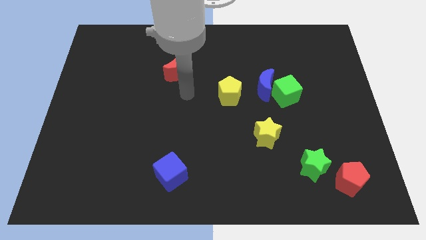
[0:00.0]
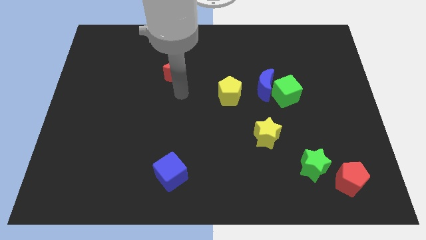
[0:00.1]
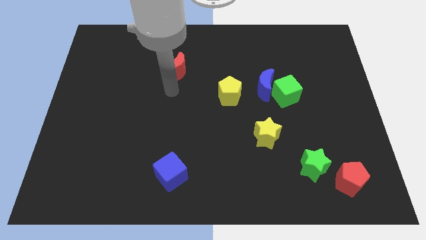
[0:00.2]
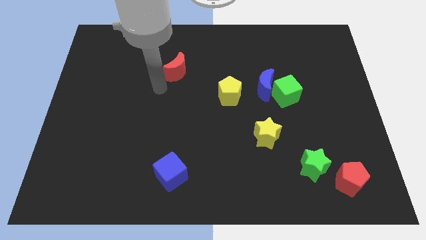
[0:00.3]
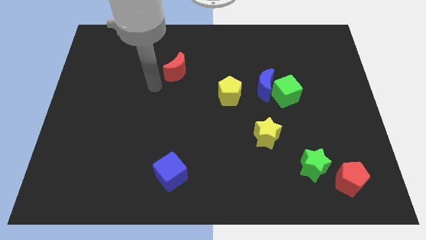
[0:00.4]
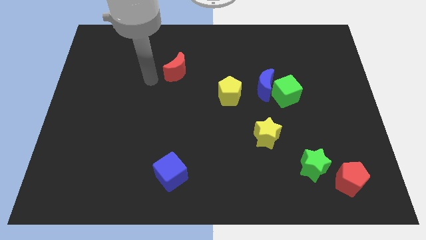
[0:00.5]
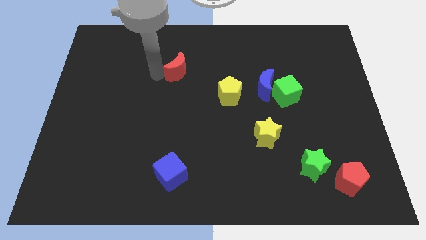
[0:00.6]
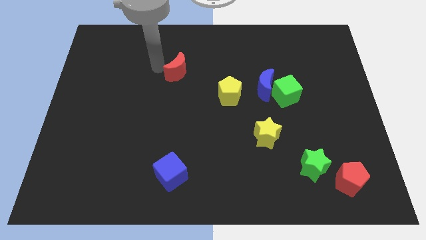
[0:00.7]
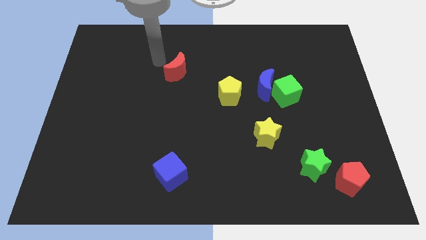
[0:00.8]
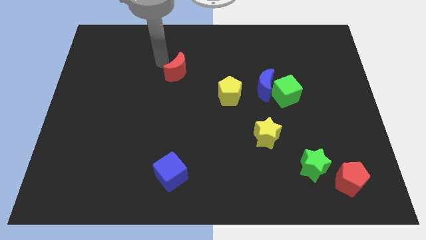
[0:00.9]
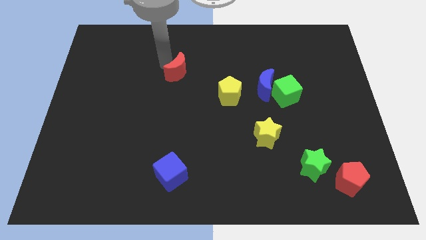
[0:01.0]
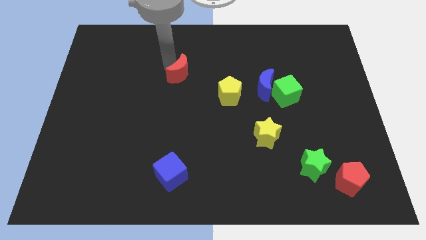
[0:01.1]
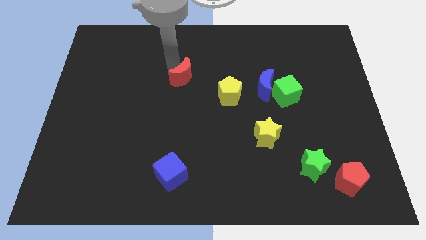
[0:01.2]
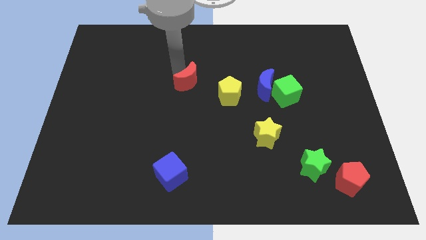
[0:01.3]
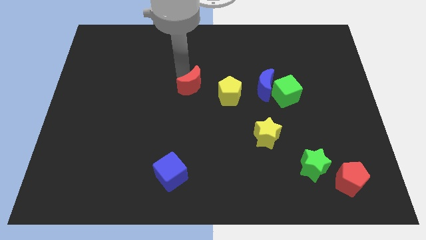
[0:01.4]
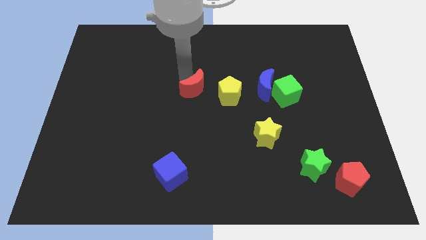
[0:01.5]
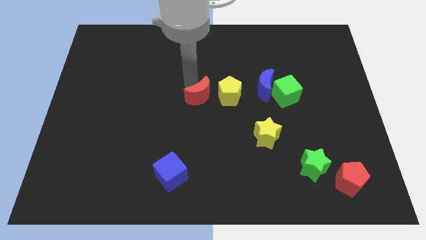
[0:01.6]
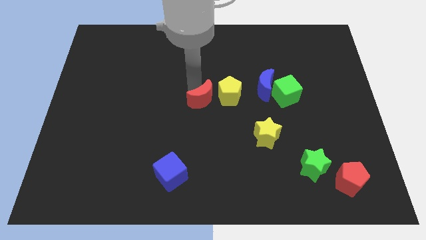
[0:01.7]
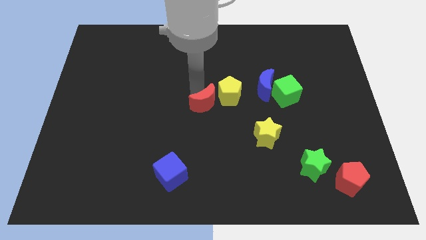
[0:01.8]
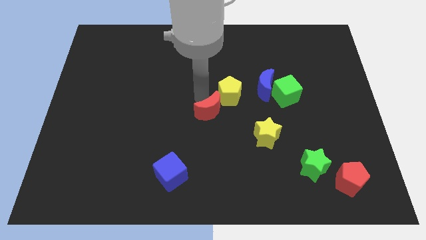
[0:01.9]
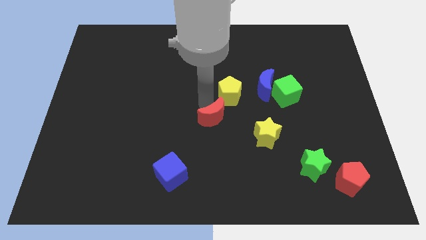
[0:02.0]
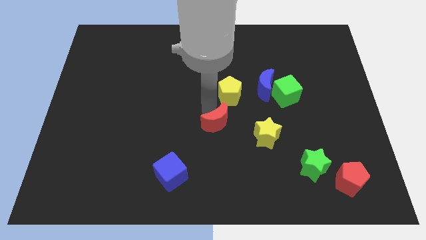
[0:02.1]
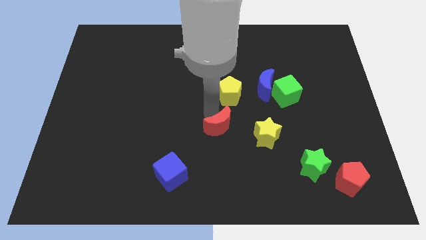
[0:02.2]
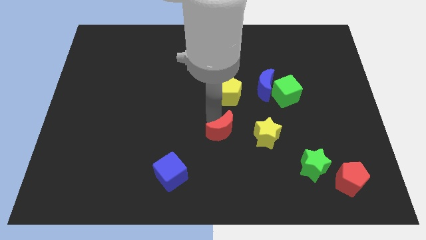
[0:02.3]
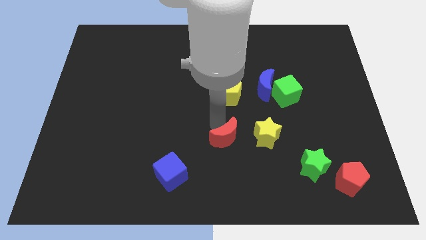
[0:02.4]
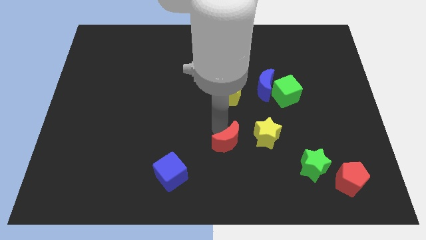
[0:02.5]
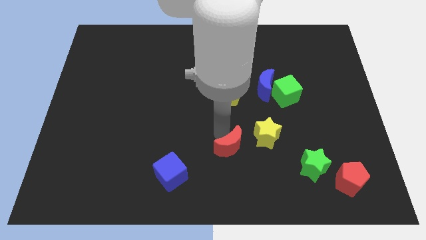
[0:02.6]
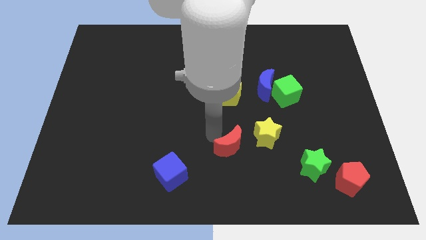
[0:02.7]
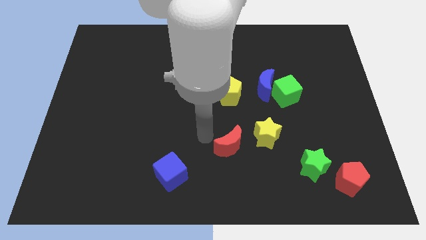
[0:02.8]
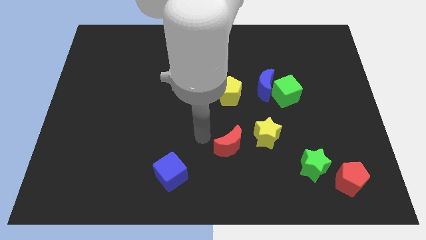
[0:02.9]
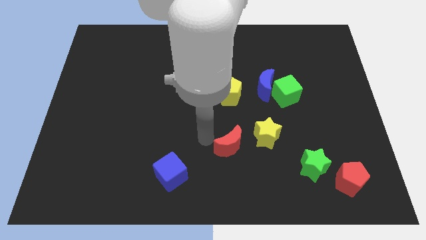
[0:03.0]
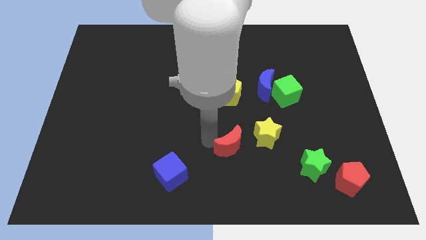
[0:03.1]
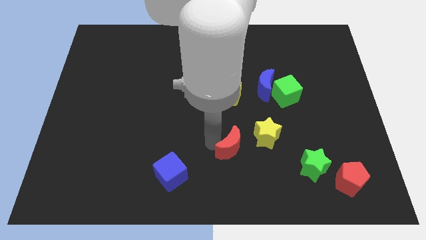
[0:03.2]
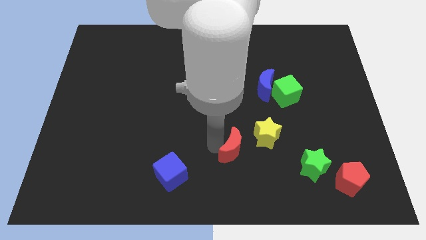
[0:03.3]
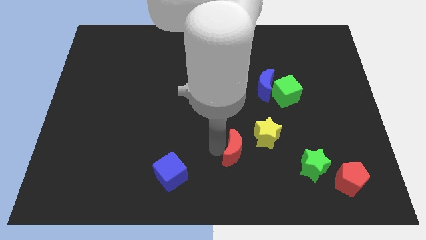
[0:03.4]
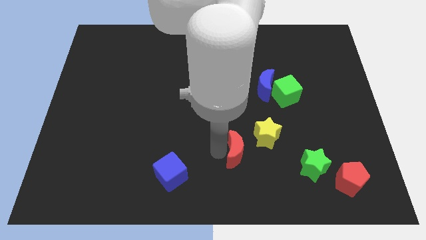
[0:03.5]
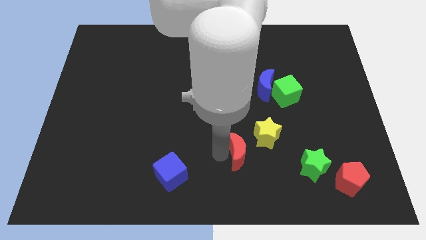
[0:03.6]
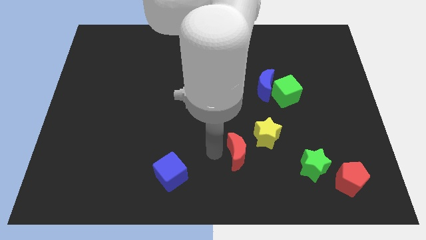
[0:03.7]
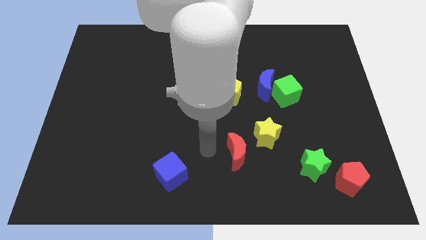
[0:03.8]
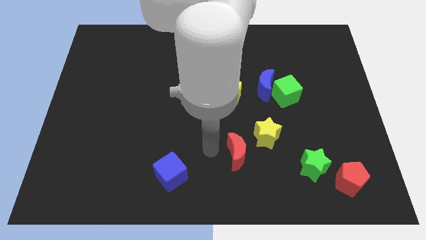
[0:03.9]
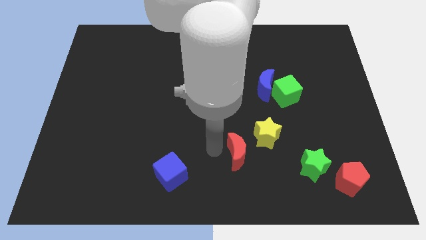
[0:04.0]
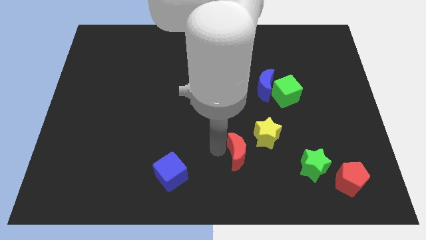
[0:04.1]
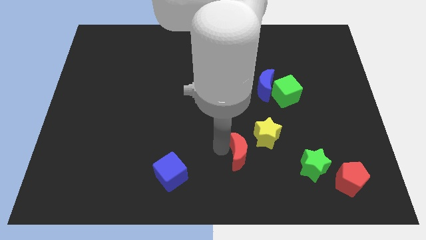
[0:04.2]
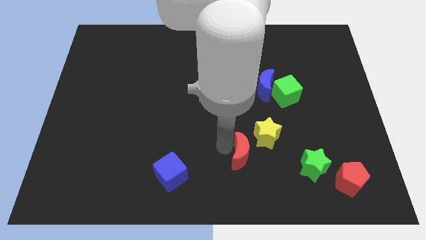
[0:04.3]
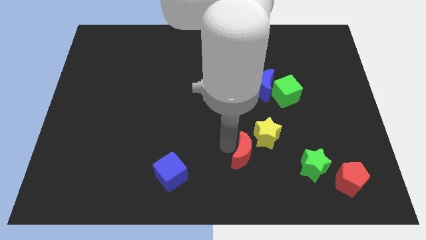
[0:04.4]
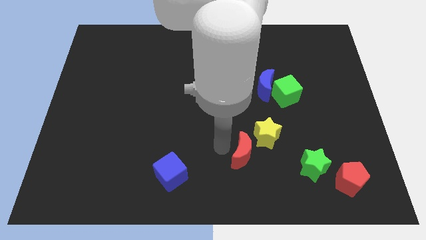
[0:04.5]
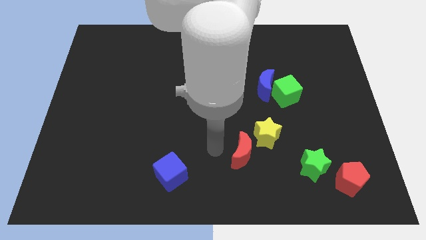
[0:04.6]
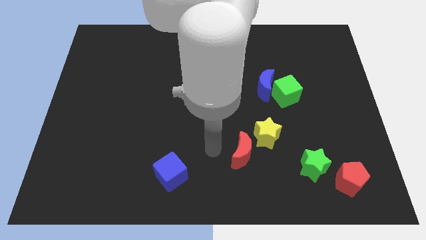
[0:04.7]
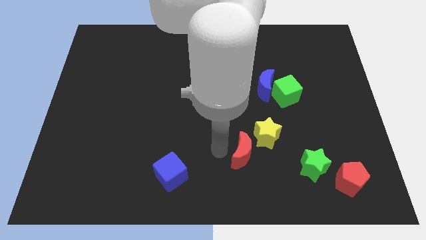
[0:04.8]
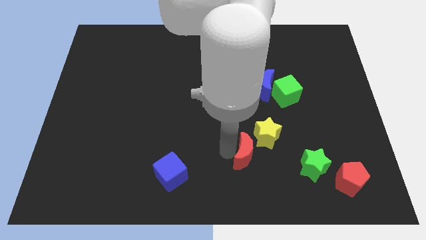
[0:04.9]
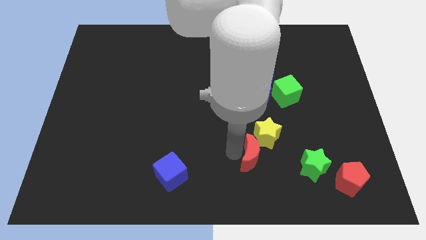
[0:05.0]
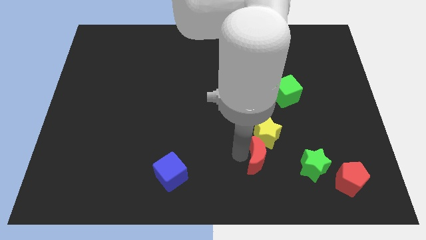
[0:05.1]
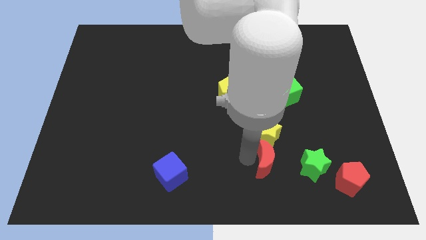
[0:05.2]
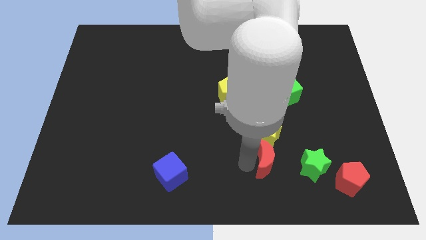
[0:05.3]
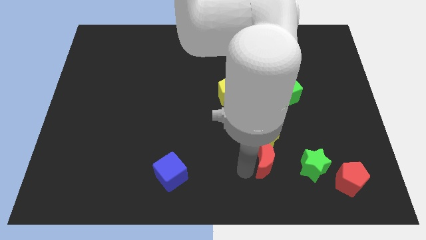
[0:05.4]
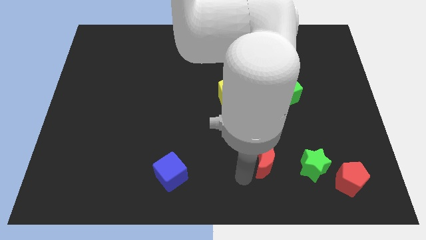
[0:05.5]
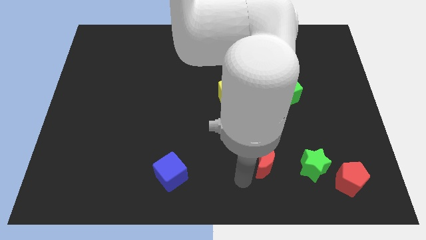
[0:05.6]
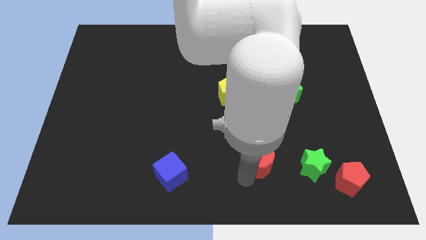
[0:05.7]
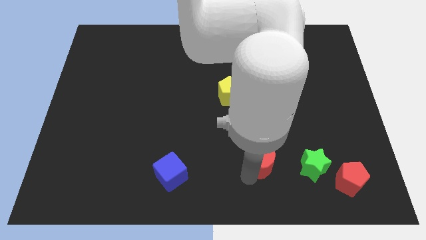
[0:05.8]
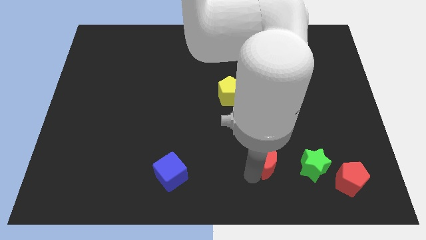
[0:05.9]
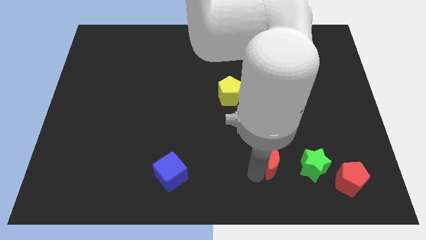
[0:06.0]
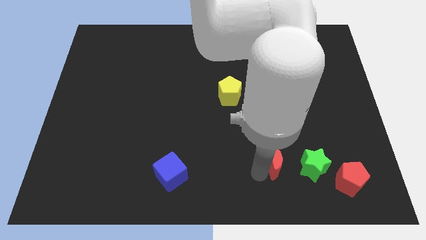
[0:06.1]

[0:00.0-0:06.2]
put the red moon to the top left side of the green star
